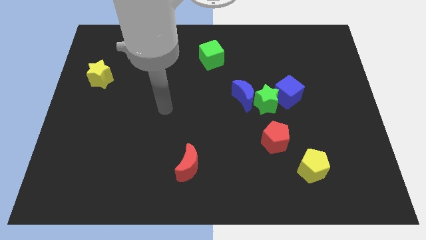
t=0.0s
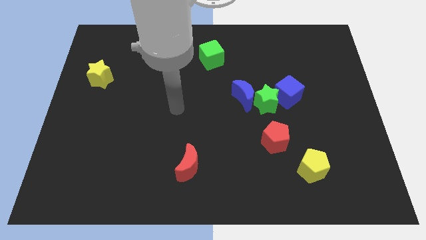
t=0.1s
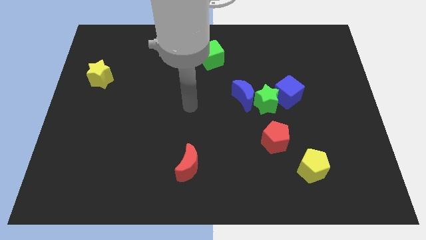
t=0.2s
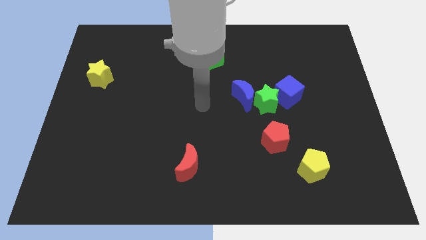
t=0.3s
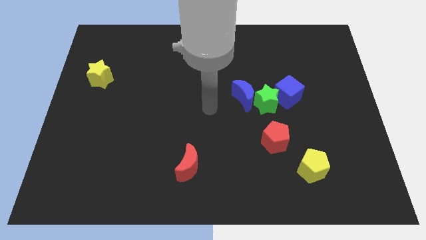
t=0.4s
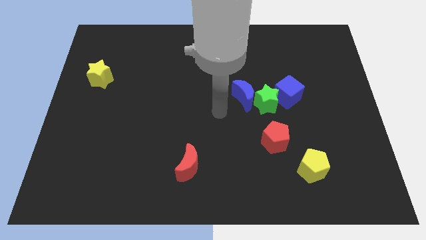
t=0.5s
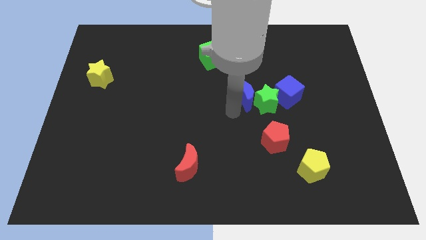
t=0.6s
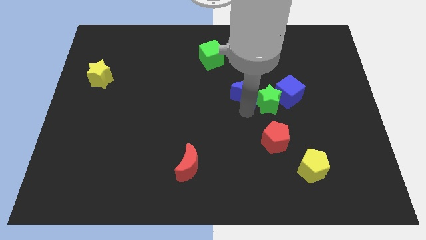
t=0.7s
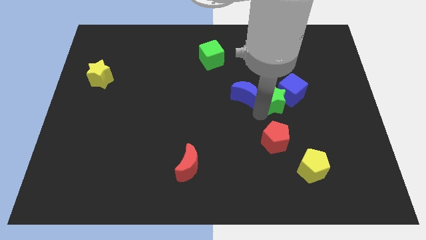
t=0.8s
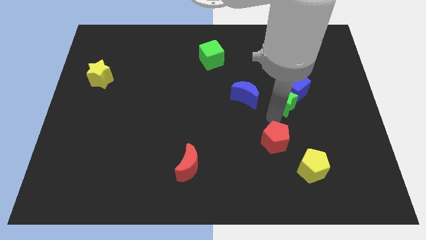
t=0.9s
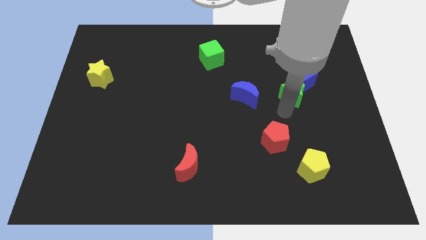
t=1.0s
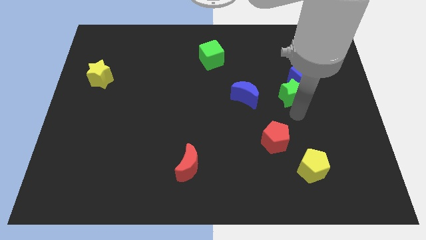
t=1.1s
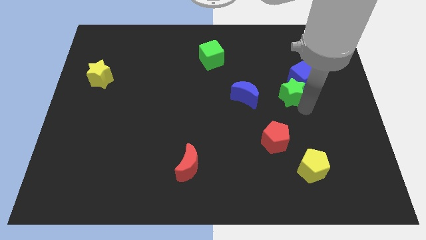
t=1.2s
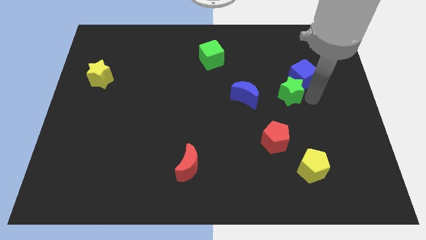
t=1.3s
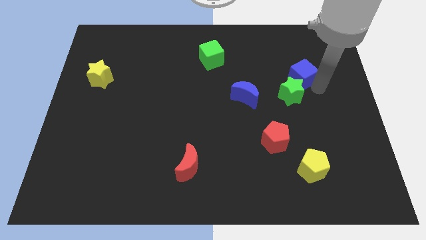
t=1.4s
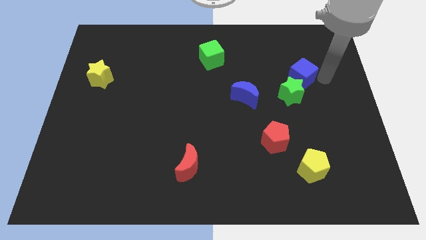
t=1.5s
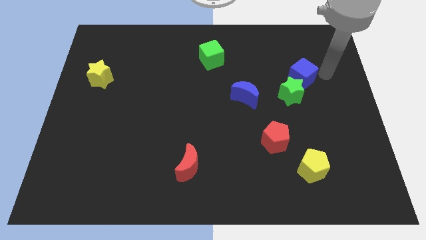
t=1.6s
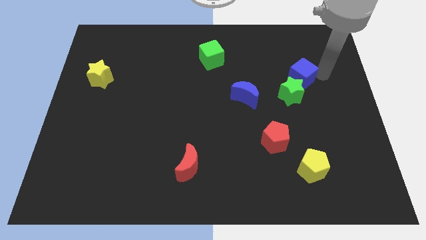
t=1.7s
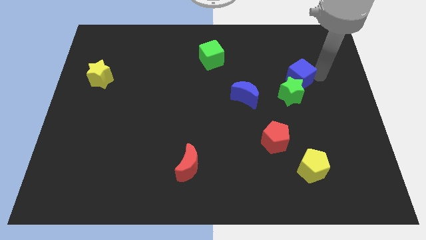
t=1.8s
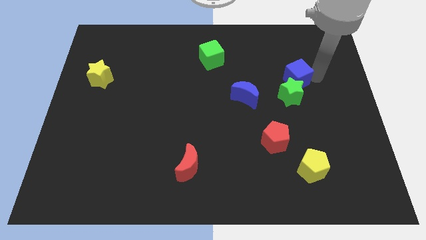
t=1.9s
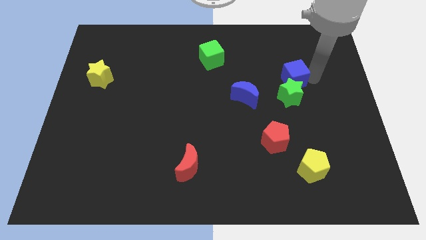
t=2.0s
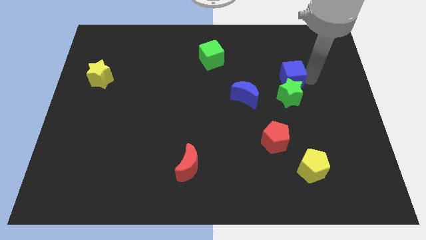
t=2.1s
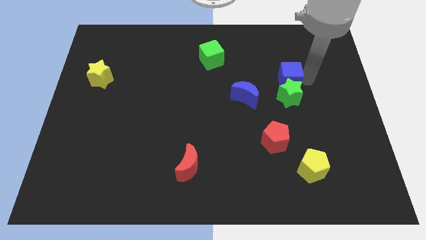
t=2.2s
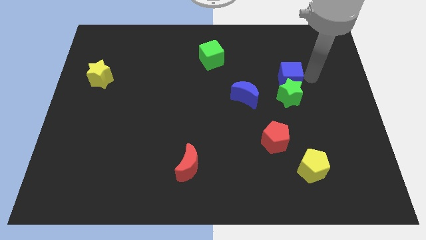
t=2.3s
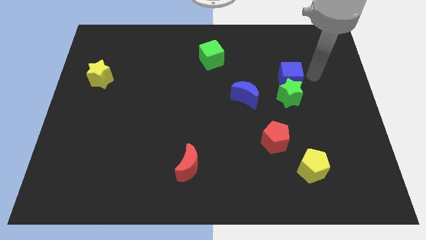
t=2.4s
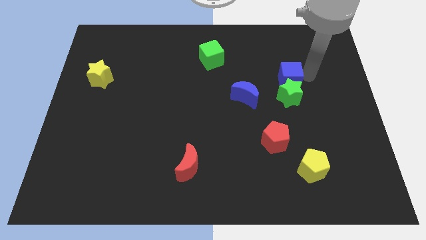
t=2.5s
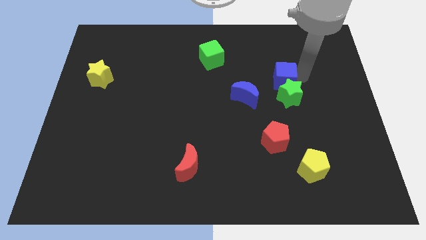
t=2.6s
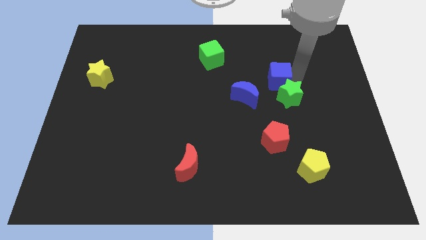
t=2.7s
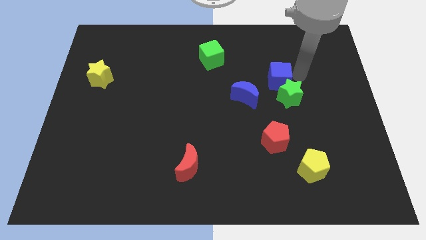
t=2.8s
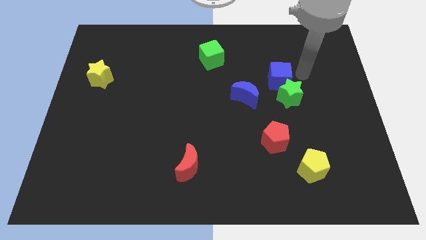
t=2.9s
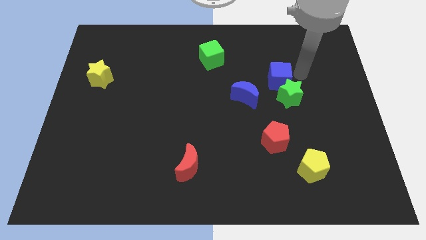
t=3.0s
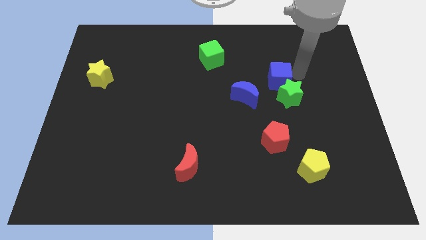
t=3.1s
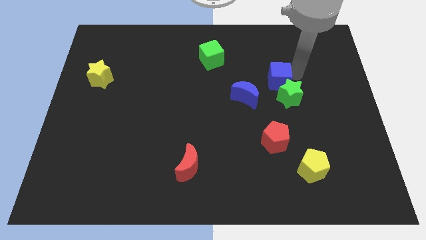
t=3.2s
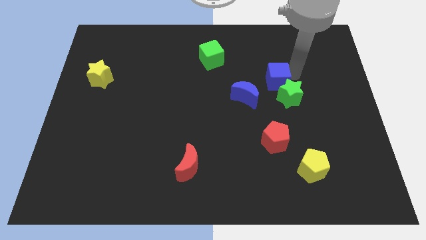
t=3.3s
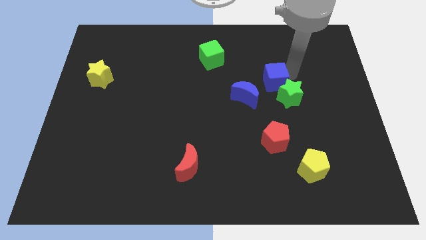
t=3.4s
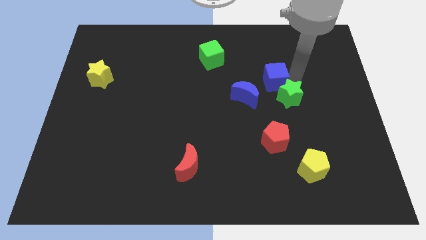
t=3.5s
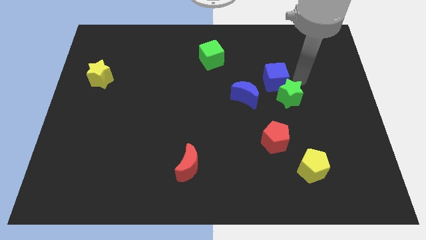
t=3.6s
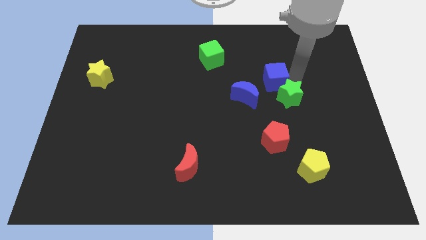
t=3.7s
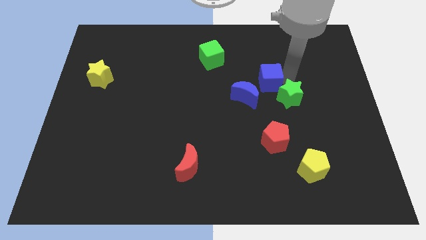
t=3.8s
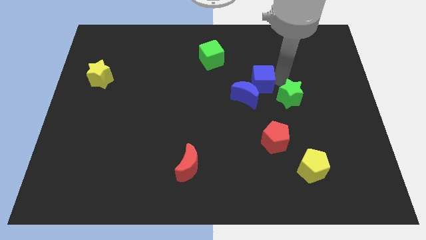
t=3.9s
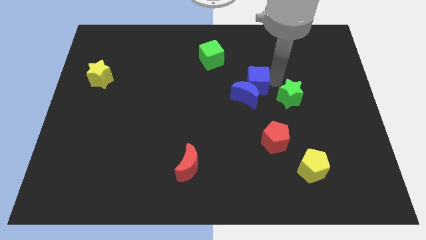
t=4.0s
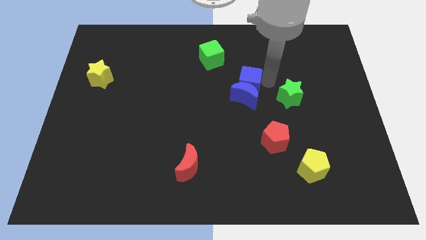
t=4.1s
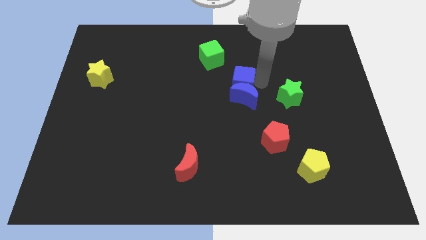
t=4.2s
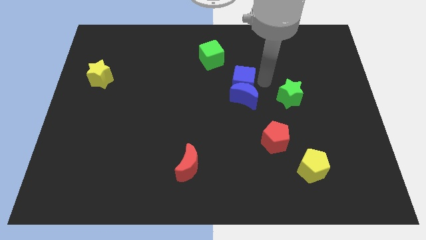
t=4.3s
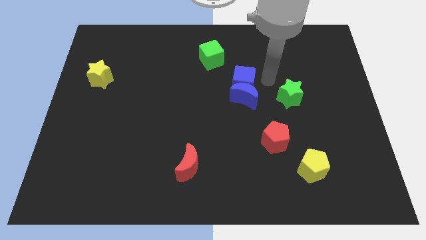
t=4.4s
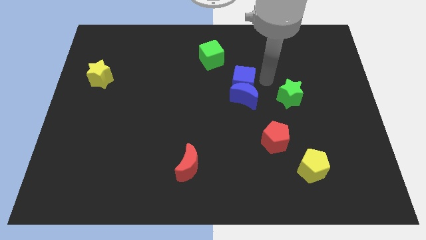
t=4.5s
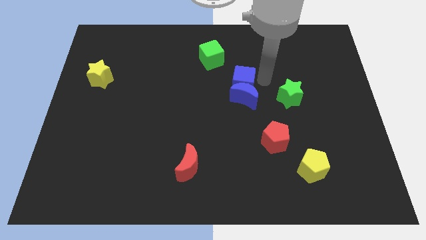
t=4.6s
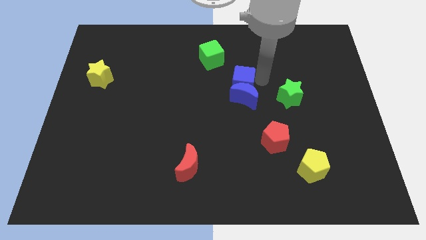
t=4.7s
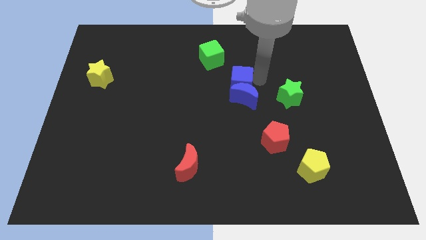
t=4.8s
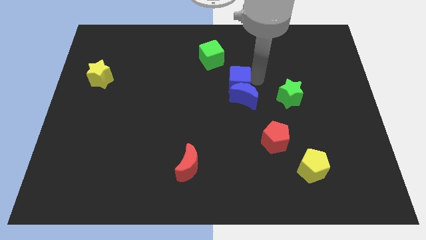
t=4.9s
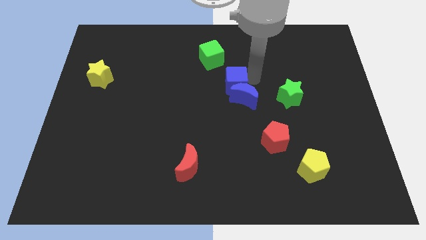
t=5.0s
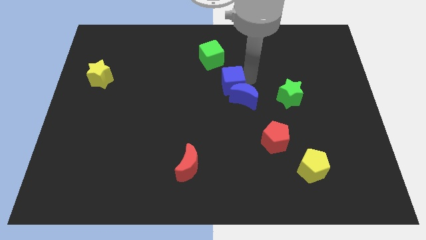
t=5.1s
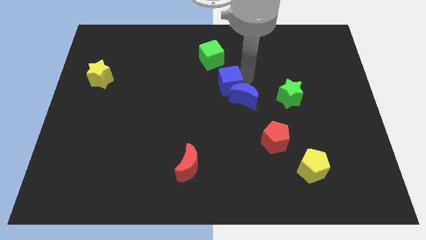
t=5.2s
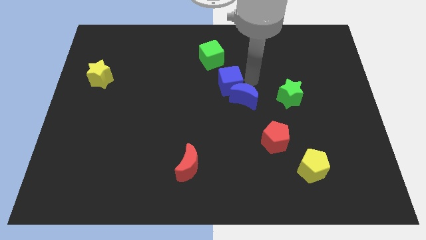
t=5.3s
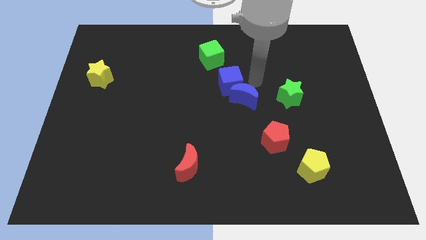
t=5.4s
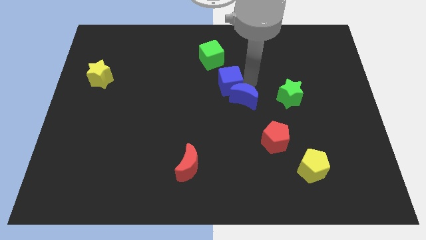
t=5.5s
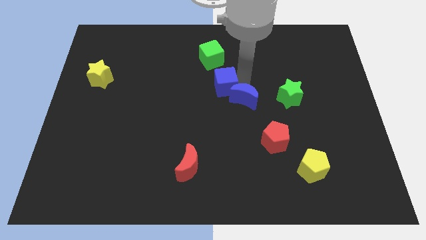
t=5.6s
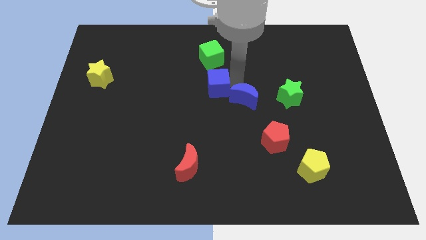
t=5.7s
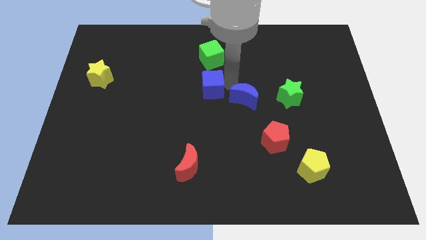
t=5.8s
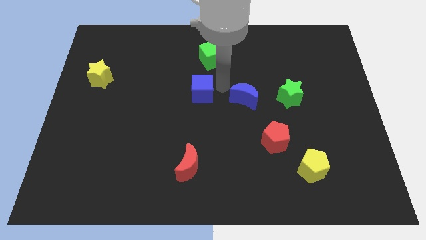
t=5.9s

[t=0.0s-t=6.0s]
slide the blue cube to the left

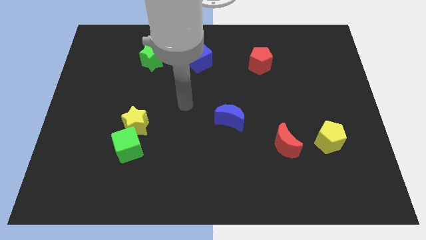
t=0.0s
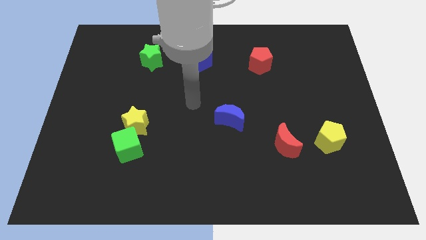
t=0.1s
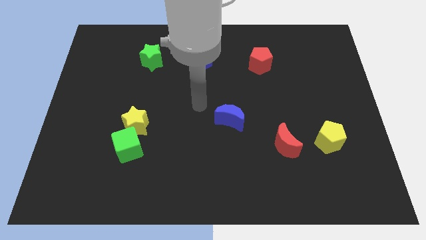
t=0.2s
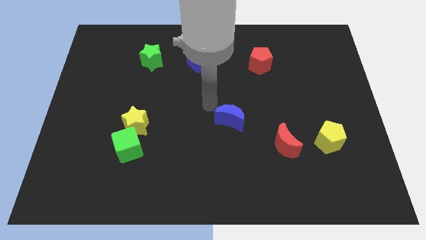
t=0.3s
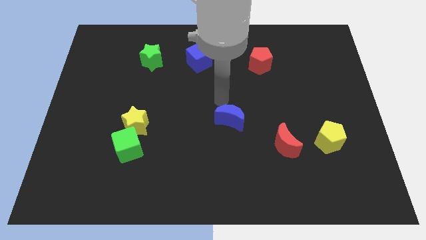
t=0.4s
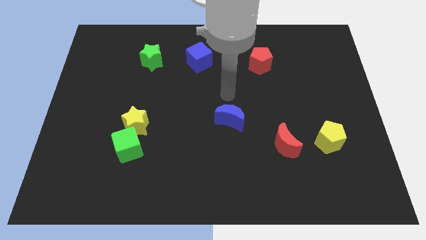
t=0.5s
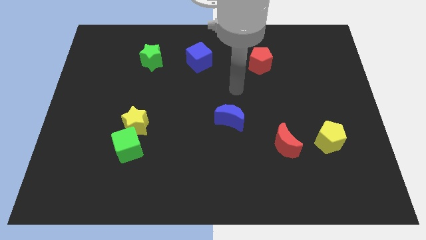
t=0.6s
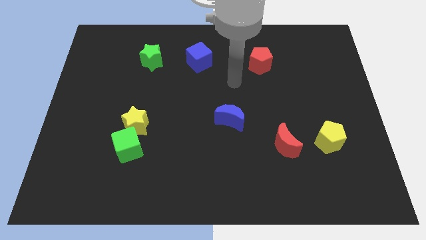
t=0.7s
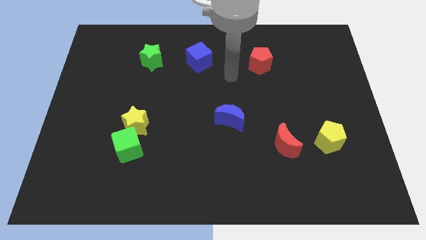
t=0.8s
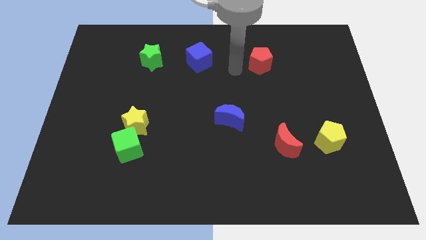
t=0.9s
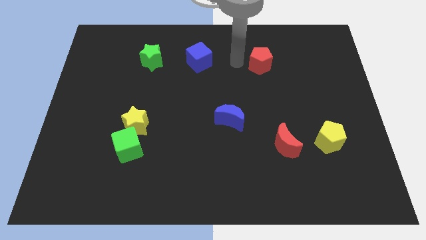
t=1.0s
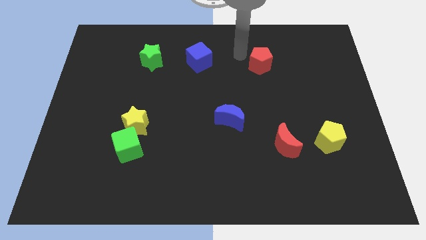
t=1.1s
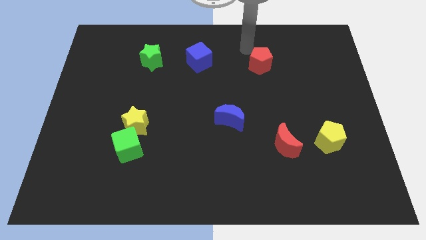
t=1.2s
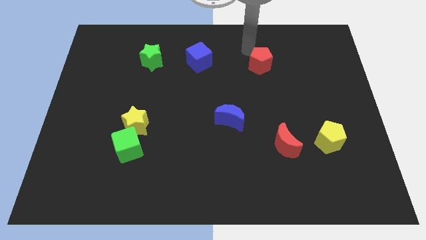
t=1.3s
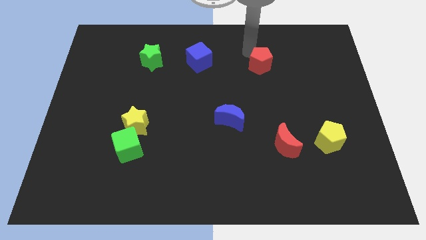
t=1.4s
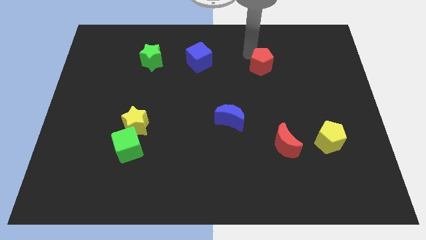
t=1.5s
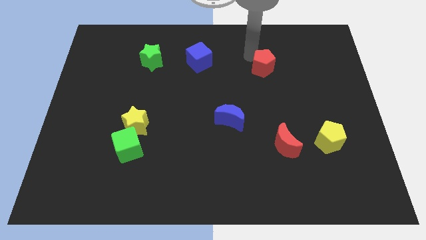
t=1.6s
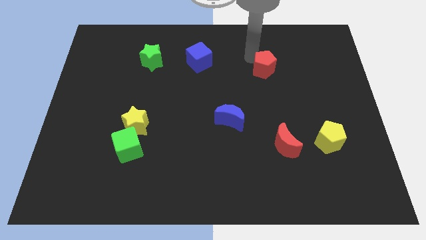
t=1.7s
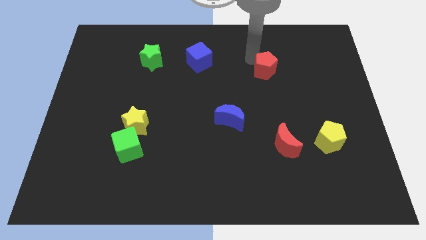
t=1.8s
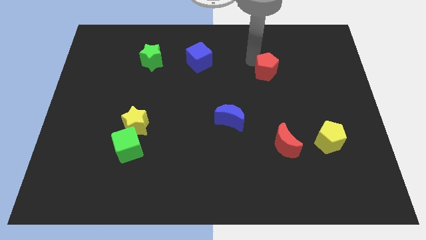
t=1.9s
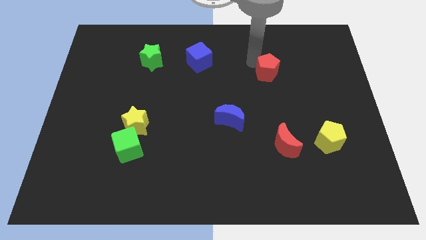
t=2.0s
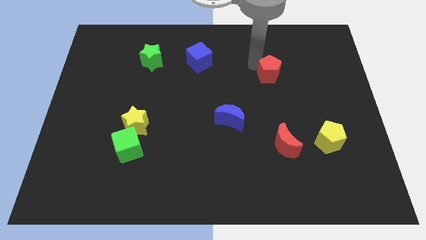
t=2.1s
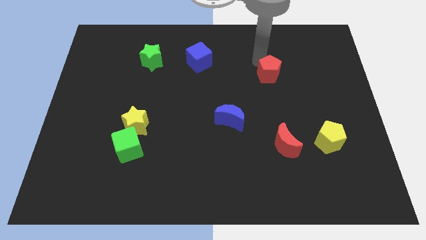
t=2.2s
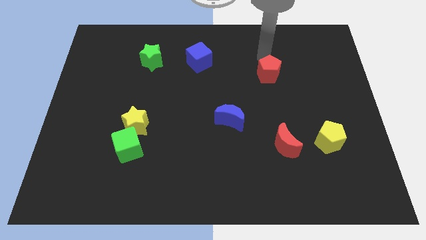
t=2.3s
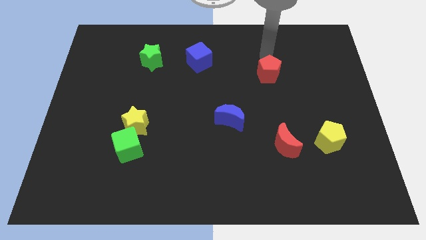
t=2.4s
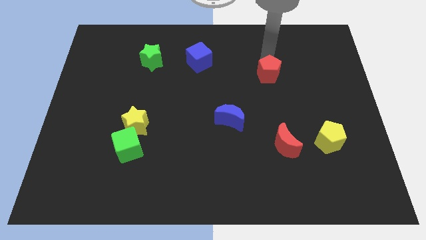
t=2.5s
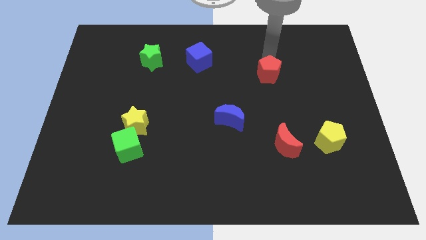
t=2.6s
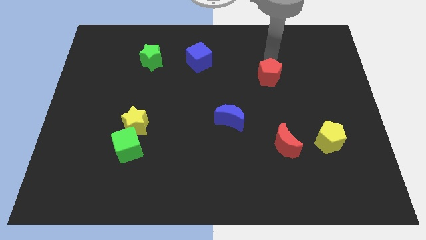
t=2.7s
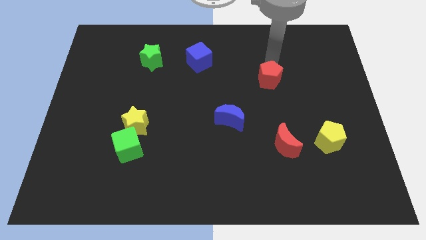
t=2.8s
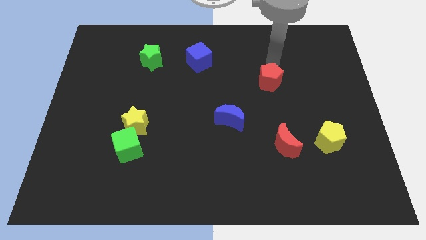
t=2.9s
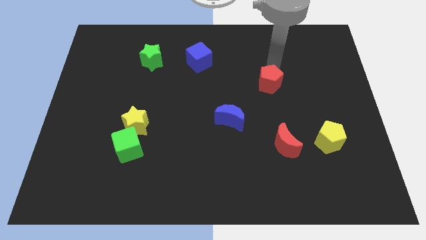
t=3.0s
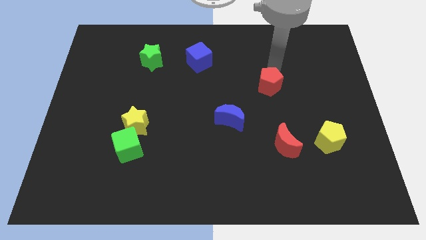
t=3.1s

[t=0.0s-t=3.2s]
slightly move the red pentagon down
